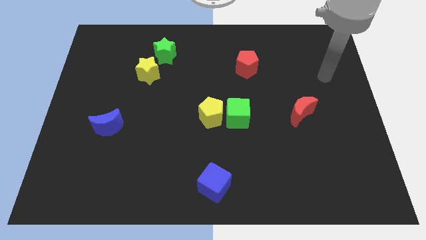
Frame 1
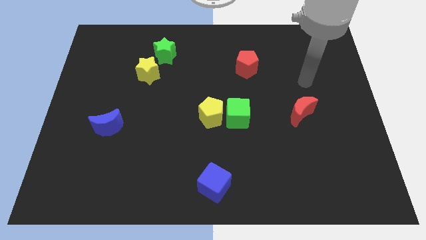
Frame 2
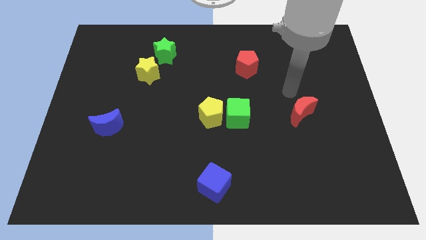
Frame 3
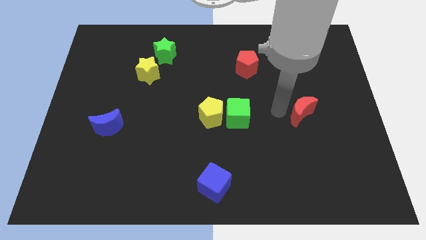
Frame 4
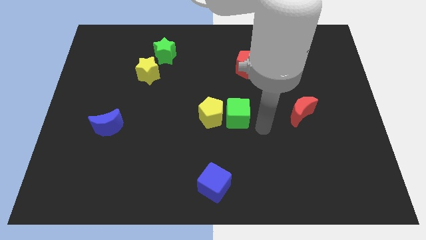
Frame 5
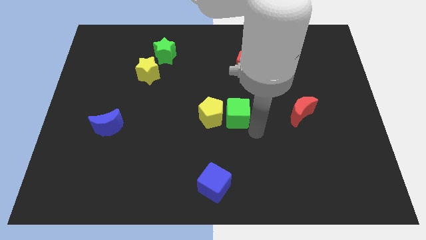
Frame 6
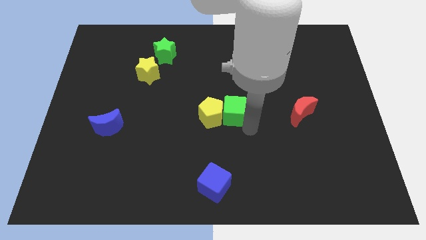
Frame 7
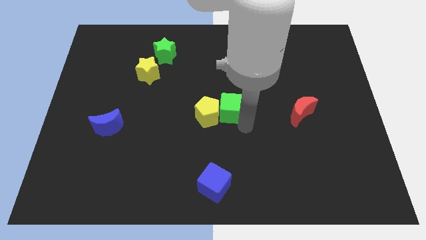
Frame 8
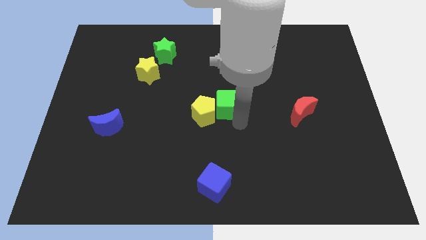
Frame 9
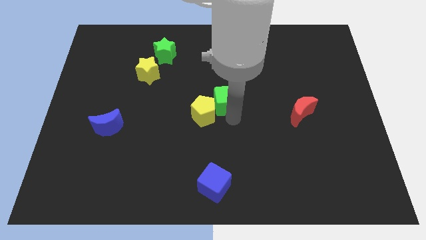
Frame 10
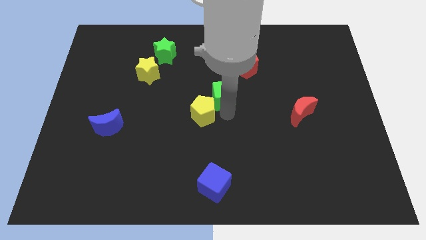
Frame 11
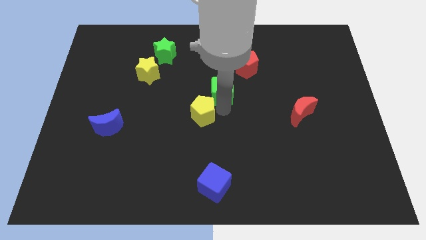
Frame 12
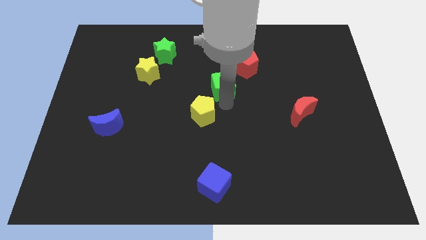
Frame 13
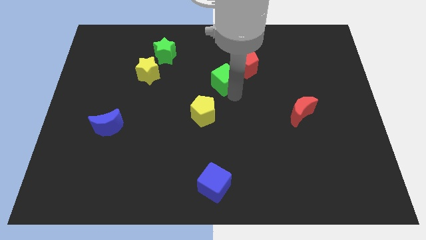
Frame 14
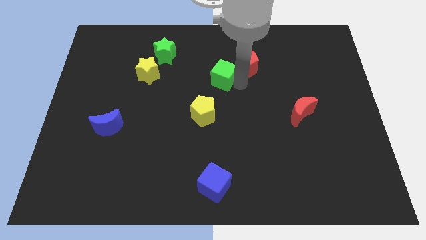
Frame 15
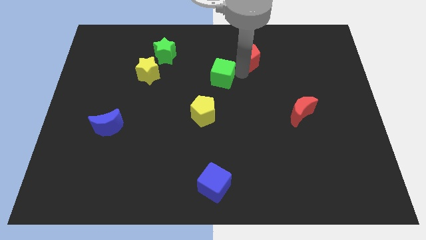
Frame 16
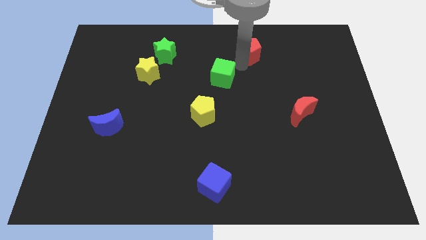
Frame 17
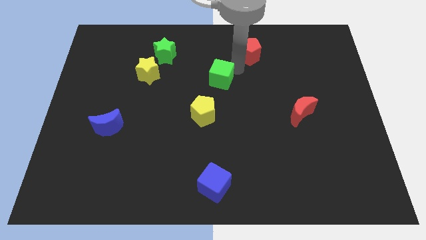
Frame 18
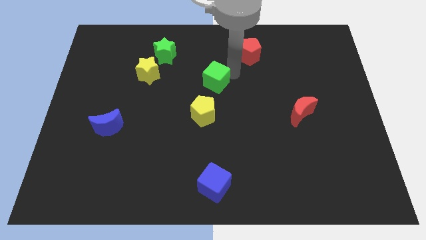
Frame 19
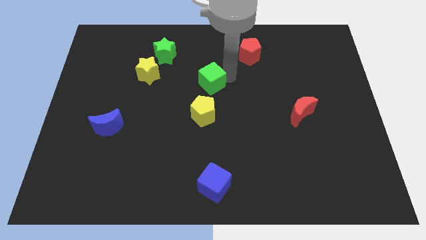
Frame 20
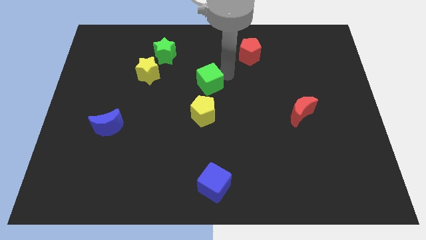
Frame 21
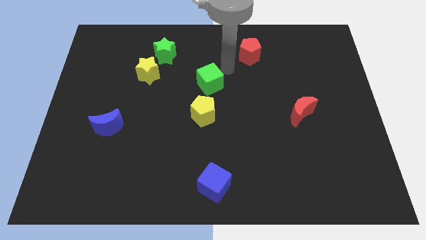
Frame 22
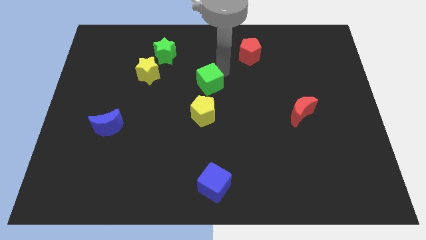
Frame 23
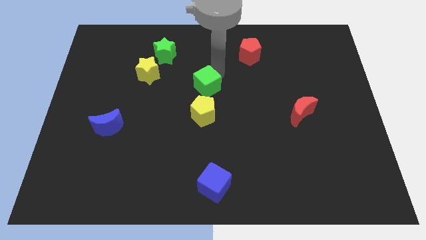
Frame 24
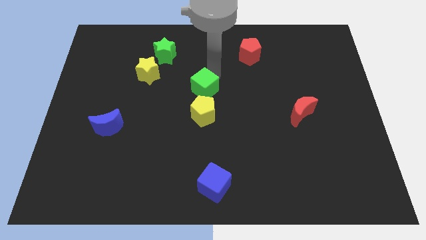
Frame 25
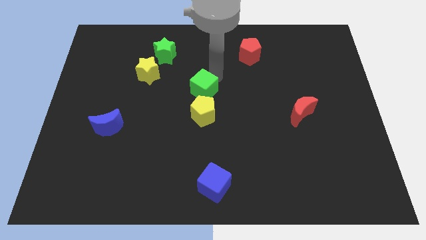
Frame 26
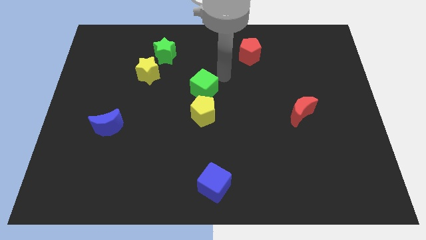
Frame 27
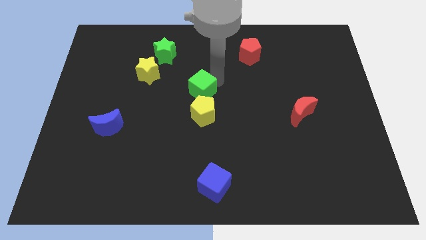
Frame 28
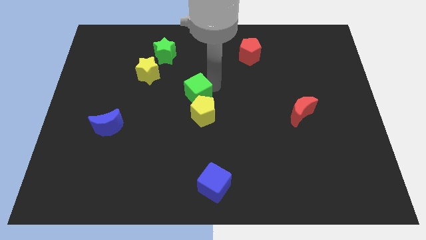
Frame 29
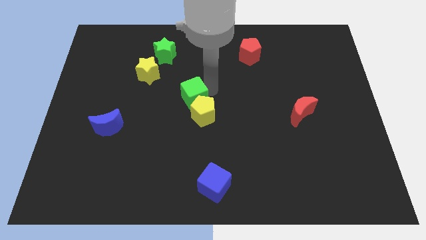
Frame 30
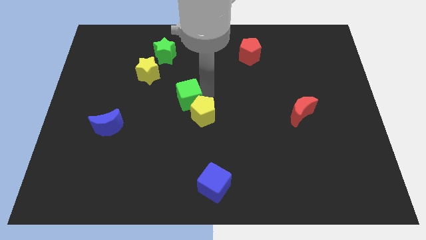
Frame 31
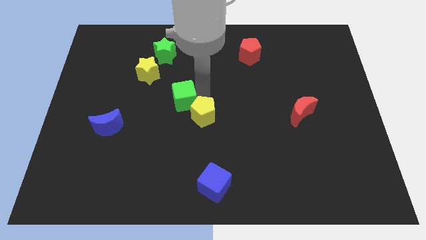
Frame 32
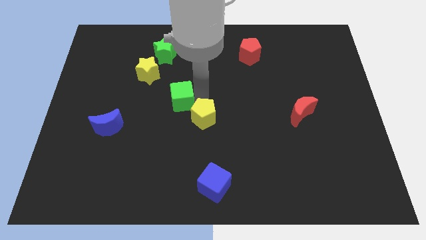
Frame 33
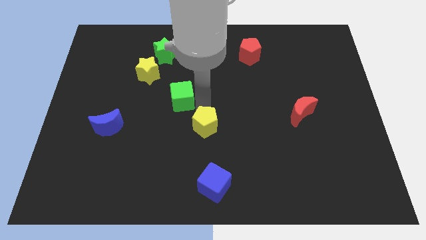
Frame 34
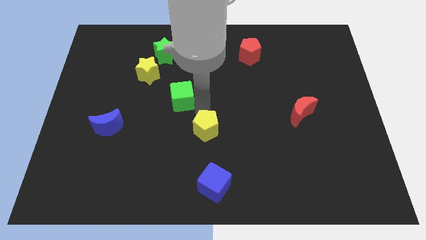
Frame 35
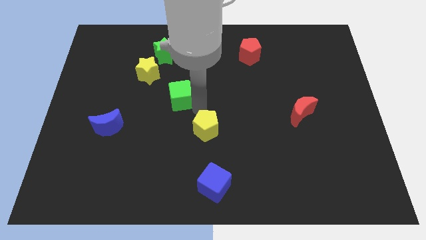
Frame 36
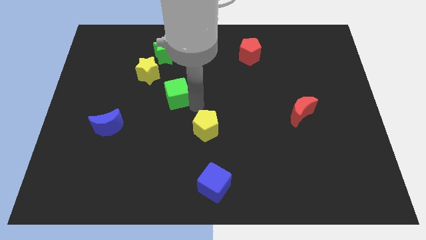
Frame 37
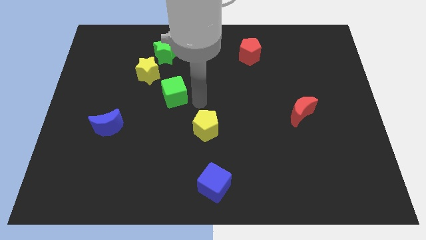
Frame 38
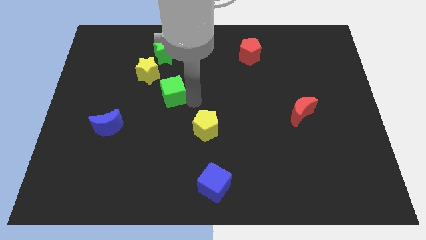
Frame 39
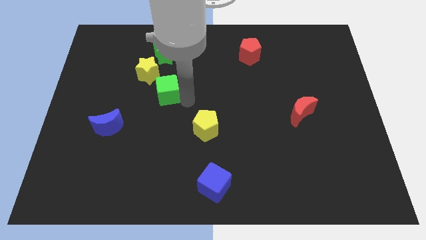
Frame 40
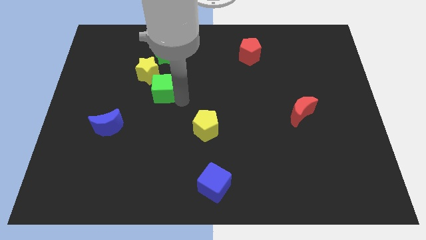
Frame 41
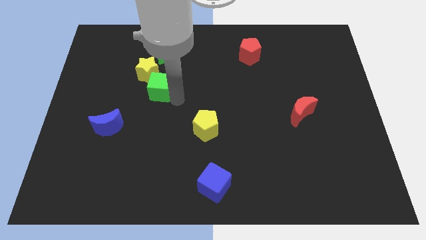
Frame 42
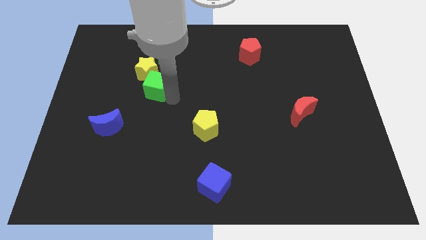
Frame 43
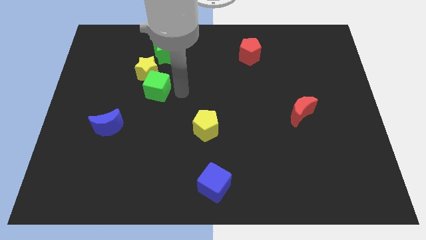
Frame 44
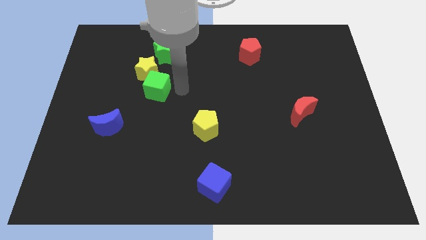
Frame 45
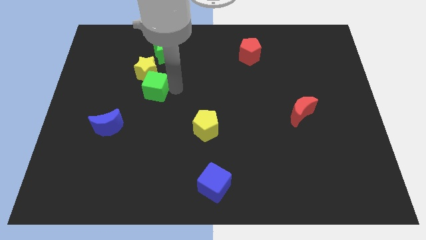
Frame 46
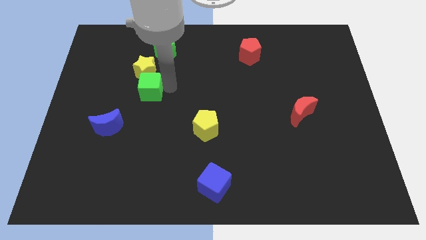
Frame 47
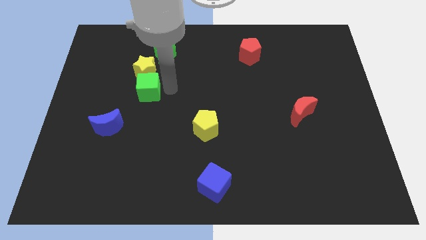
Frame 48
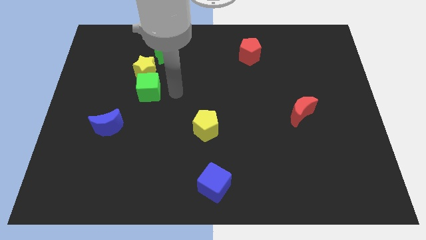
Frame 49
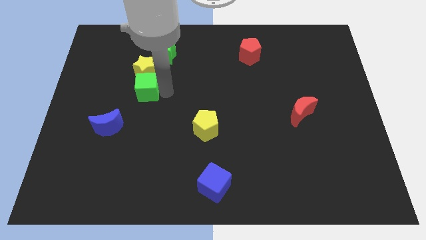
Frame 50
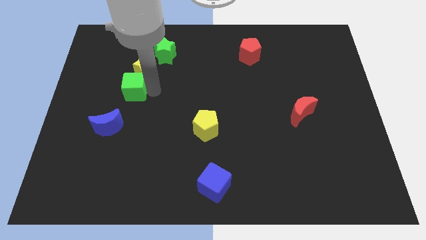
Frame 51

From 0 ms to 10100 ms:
slide the green cube above the blue moon

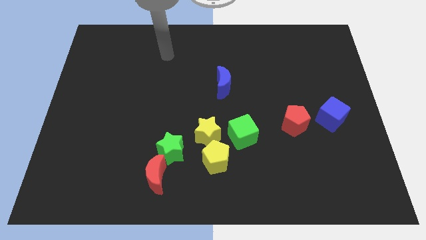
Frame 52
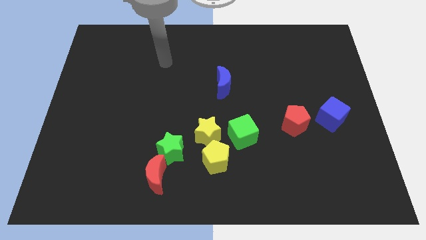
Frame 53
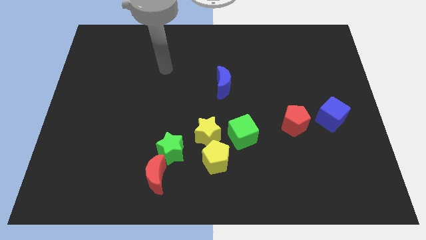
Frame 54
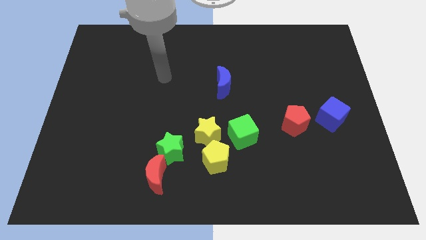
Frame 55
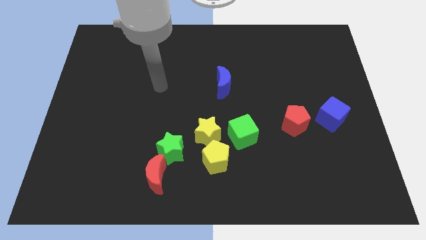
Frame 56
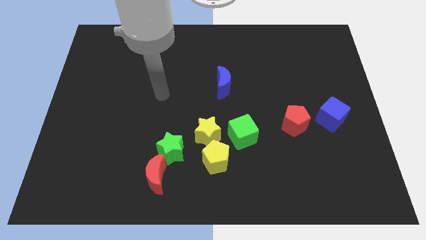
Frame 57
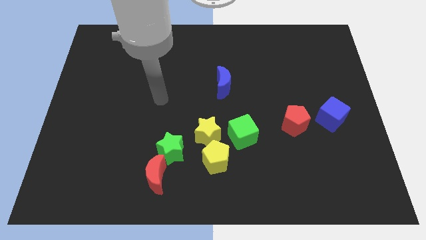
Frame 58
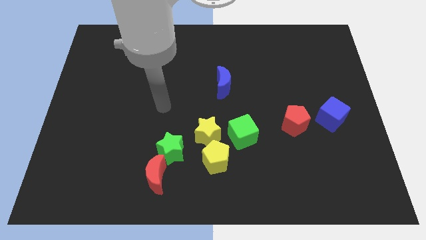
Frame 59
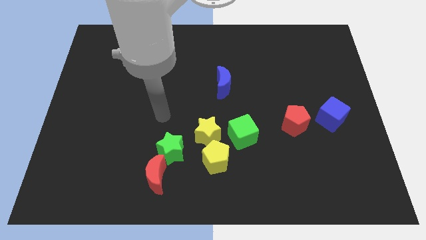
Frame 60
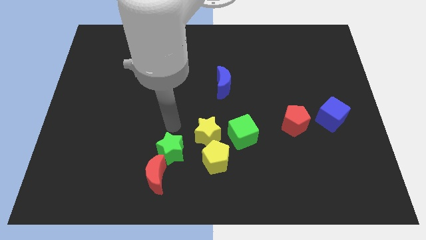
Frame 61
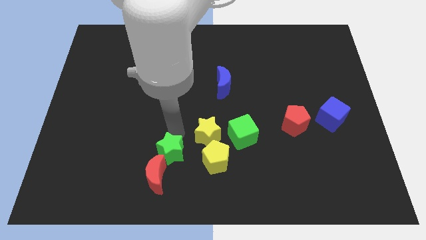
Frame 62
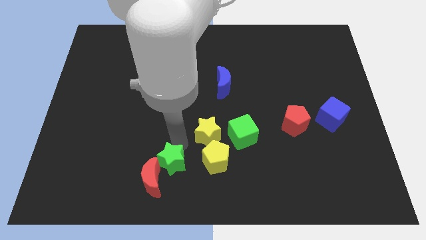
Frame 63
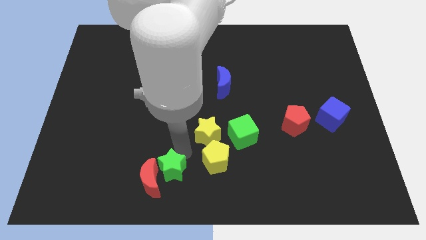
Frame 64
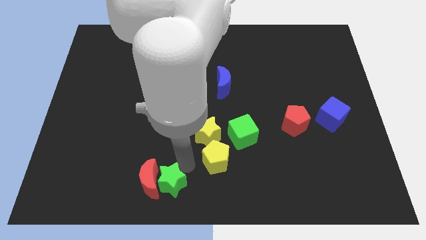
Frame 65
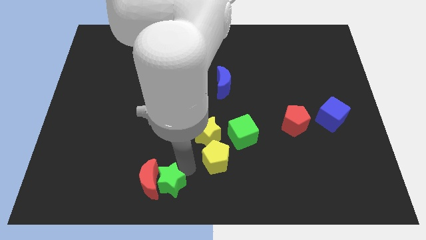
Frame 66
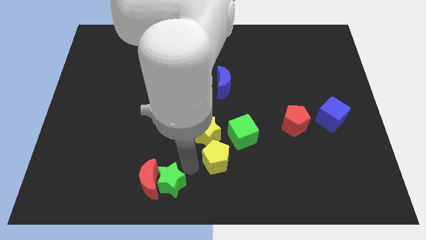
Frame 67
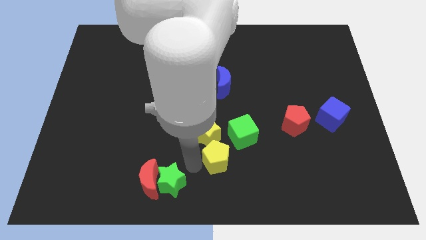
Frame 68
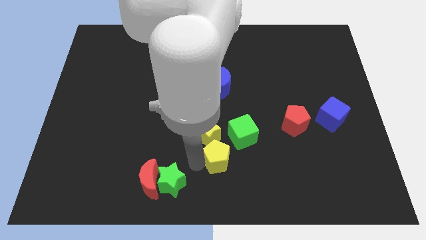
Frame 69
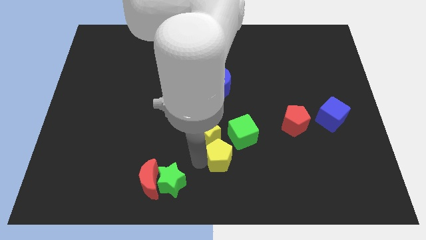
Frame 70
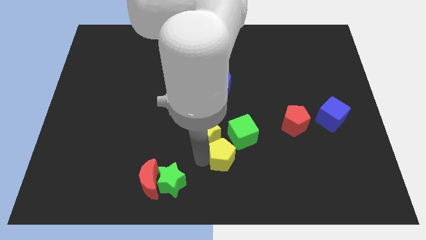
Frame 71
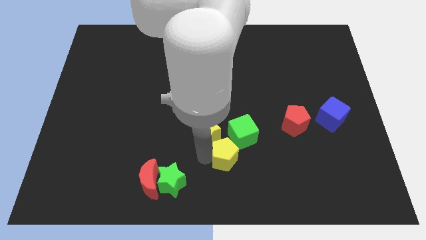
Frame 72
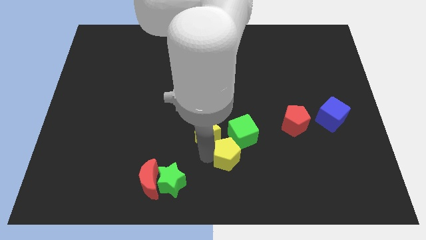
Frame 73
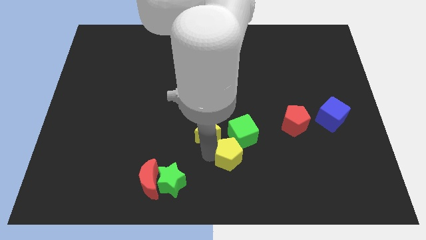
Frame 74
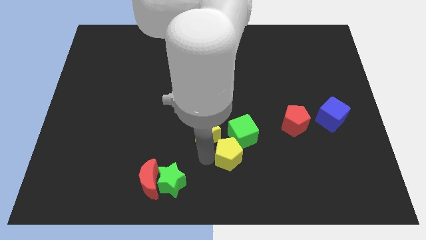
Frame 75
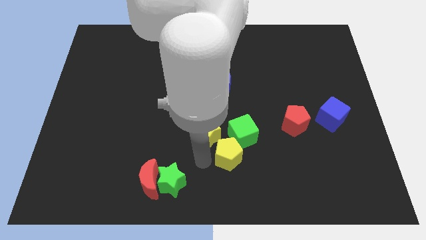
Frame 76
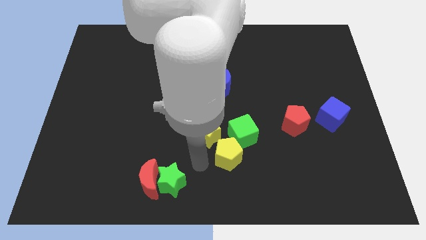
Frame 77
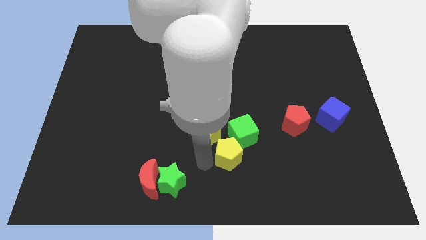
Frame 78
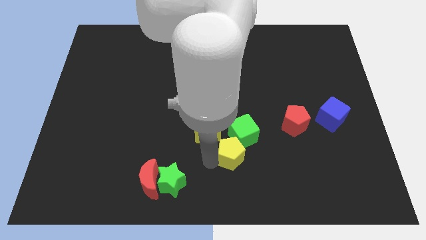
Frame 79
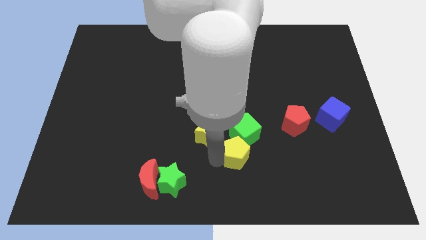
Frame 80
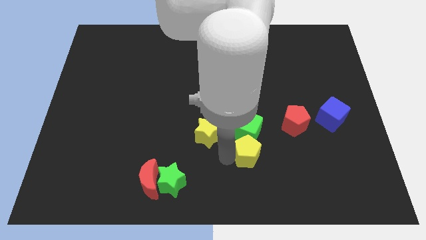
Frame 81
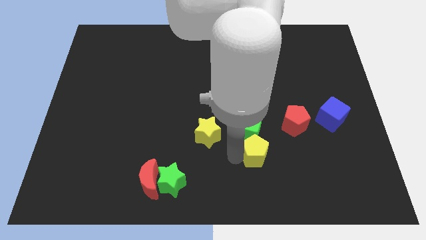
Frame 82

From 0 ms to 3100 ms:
move the yellow pentagon diagonally down and to the left of the red pentagon
